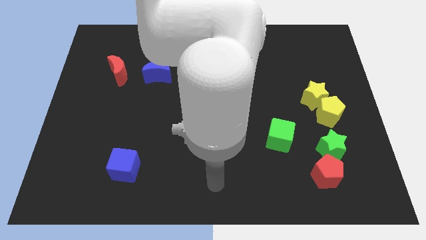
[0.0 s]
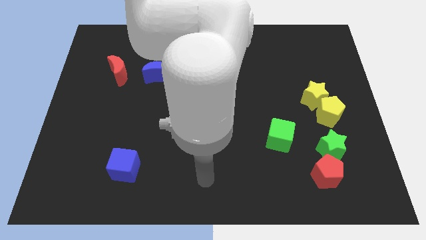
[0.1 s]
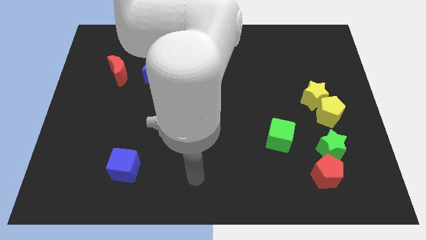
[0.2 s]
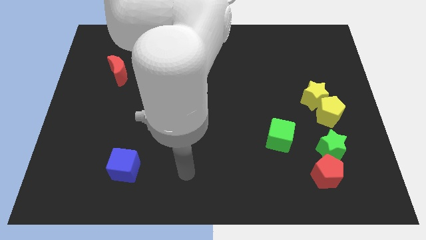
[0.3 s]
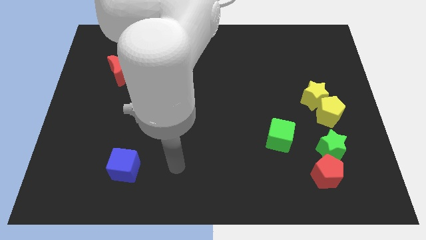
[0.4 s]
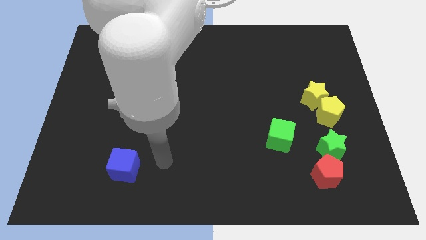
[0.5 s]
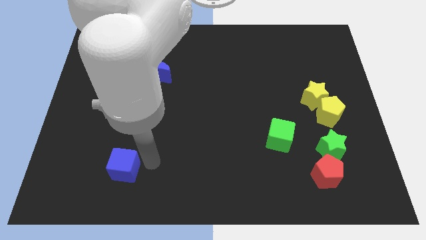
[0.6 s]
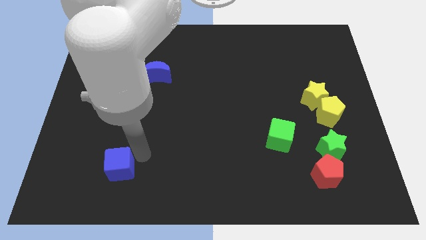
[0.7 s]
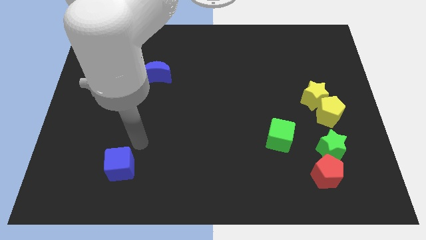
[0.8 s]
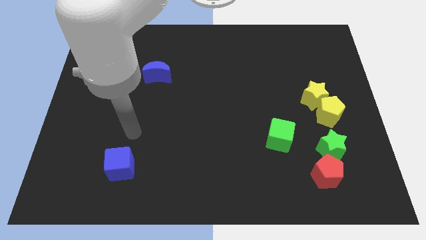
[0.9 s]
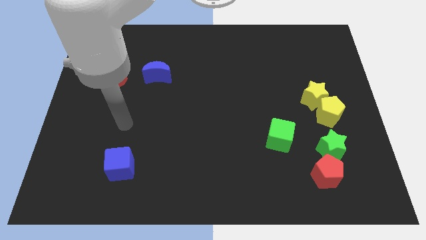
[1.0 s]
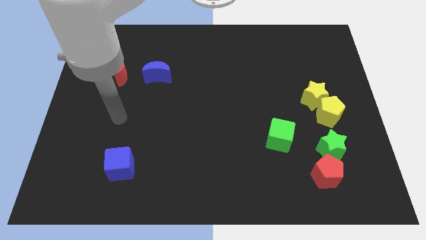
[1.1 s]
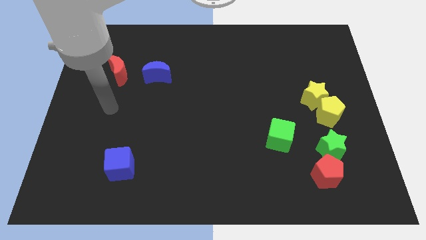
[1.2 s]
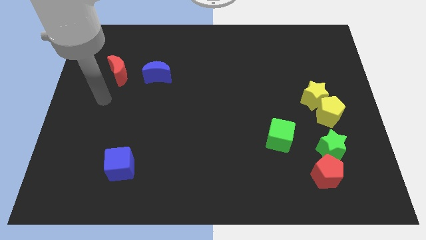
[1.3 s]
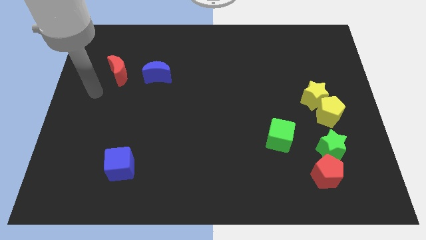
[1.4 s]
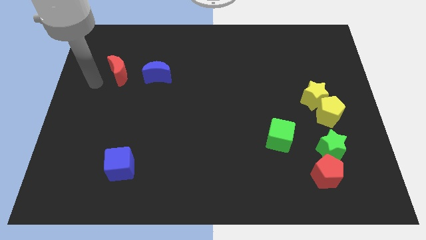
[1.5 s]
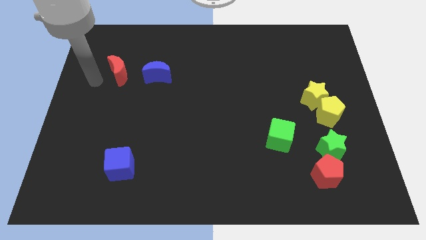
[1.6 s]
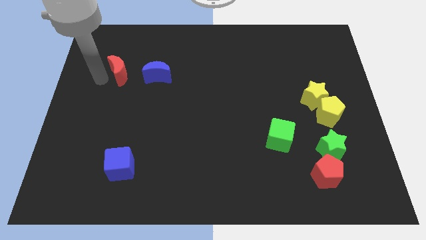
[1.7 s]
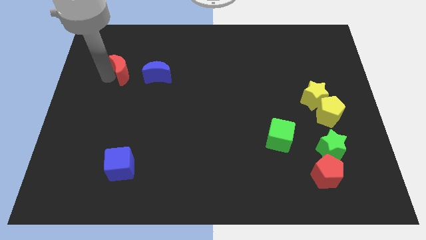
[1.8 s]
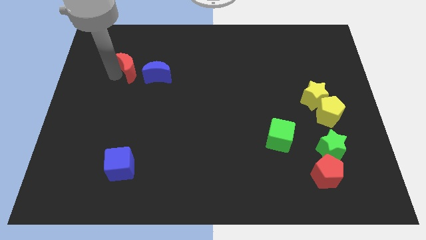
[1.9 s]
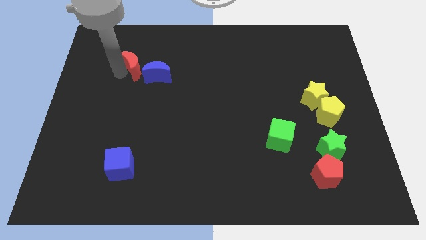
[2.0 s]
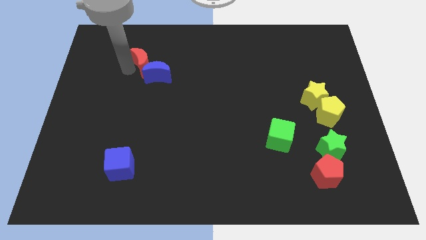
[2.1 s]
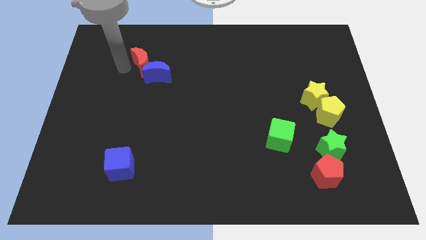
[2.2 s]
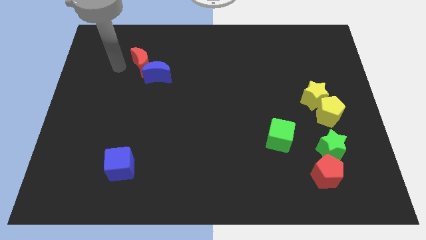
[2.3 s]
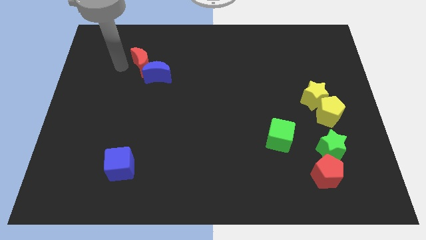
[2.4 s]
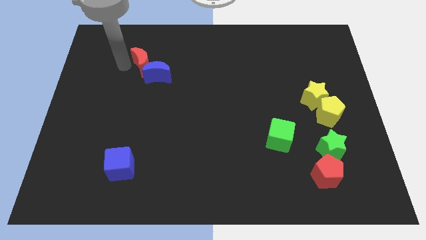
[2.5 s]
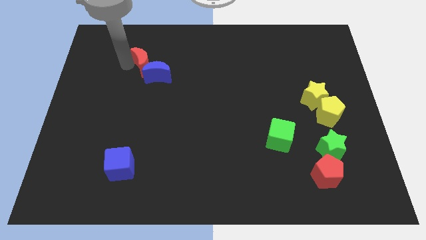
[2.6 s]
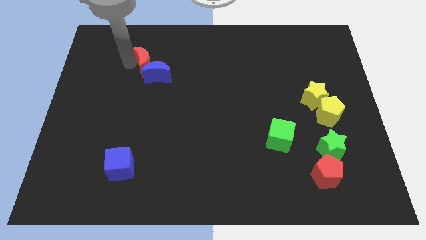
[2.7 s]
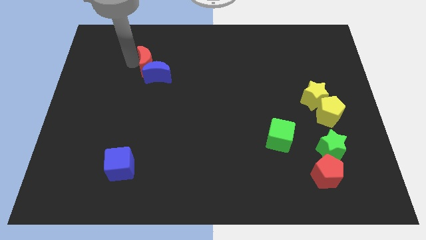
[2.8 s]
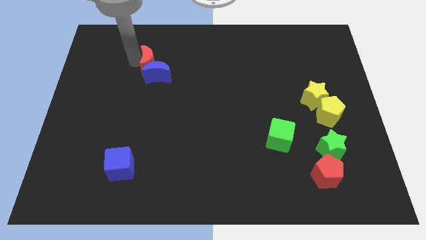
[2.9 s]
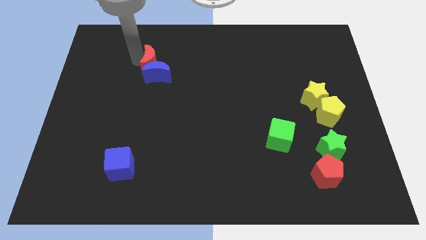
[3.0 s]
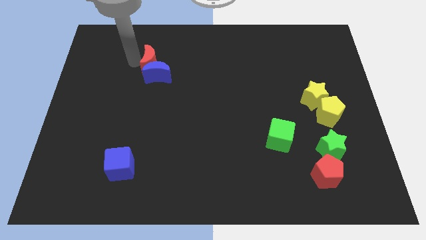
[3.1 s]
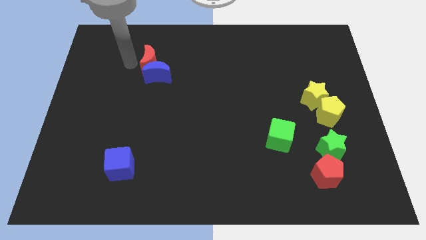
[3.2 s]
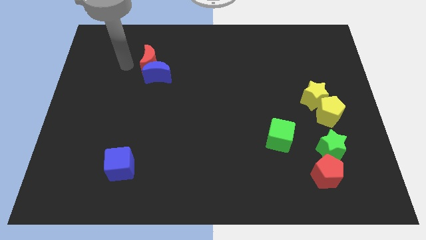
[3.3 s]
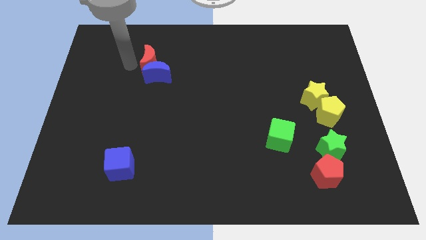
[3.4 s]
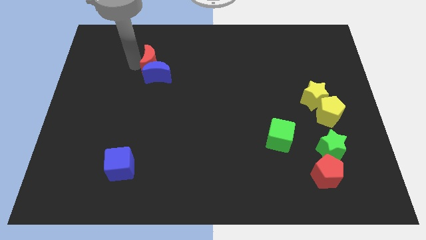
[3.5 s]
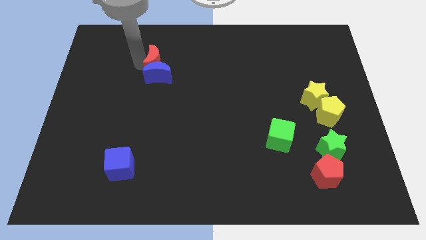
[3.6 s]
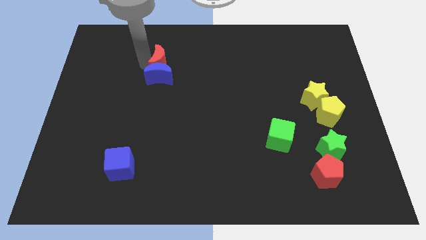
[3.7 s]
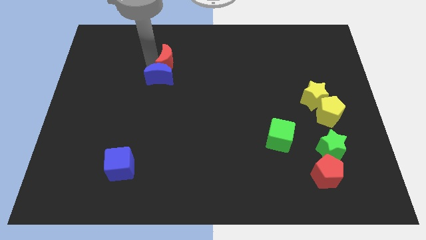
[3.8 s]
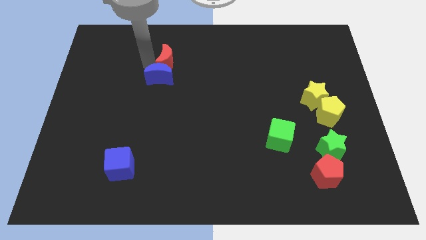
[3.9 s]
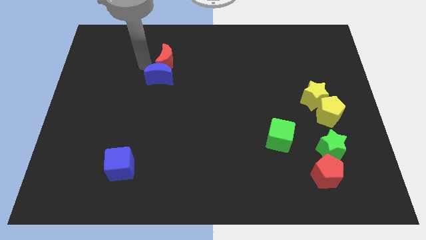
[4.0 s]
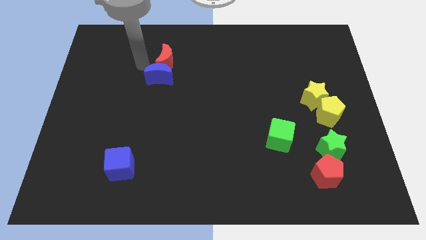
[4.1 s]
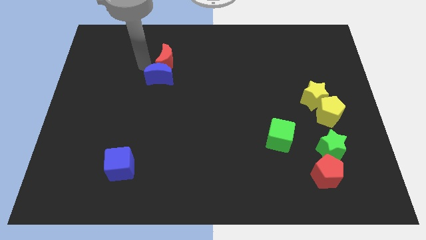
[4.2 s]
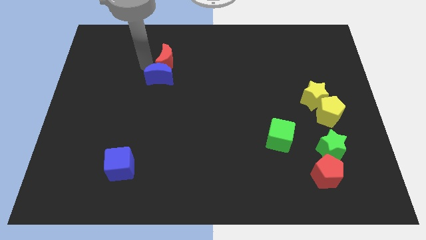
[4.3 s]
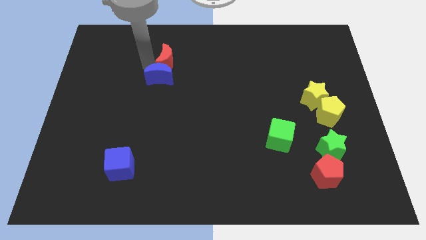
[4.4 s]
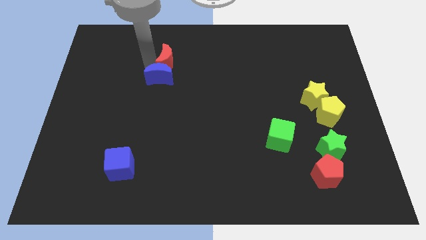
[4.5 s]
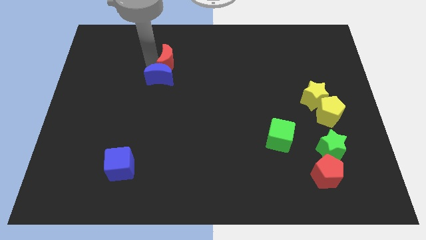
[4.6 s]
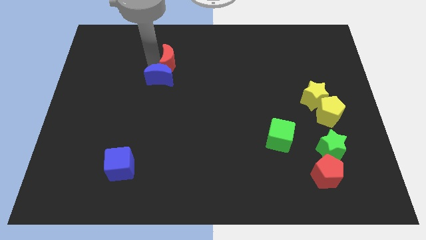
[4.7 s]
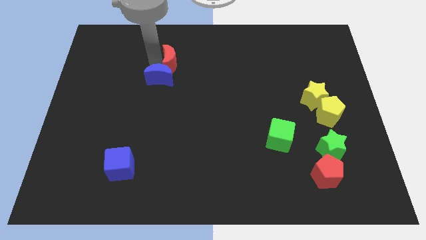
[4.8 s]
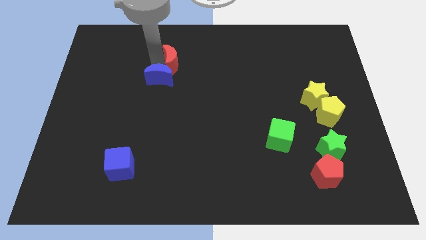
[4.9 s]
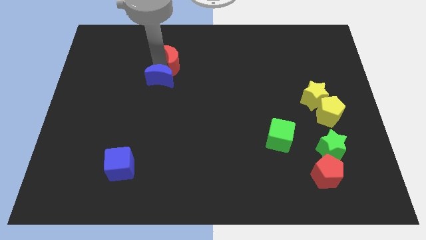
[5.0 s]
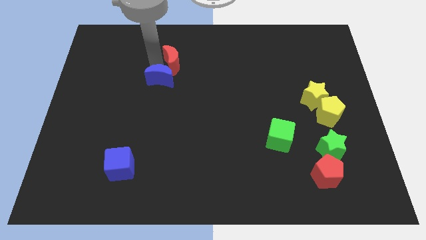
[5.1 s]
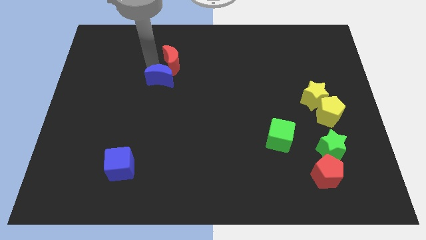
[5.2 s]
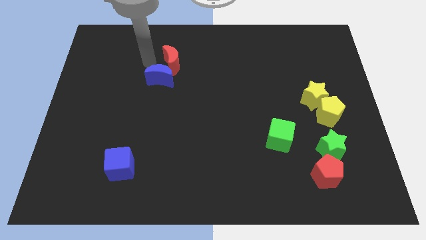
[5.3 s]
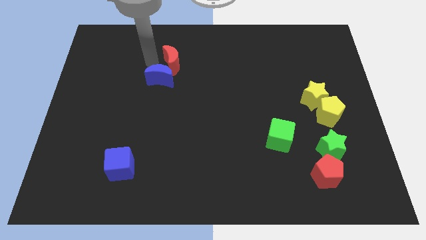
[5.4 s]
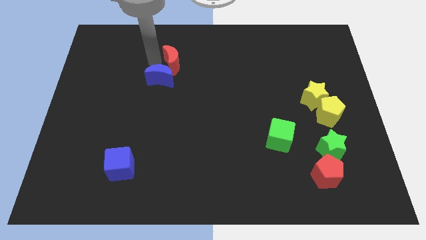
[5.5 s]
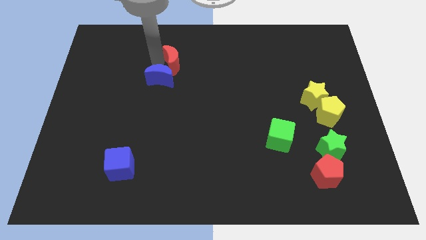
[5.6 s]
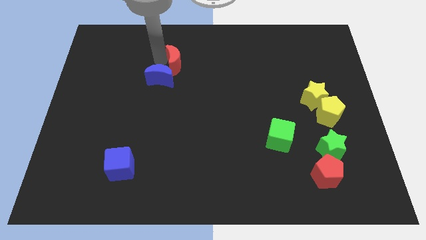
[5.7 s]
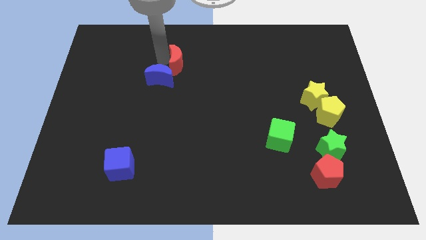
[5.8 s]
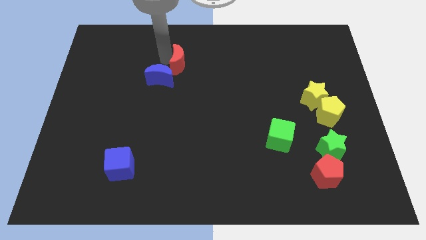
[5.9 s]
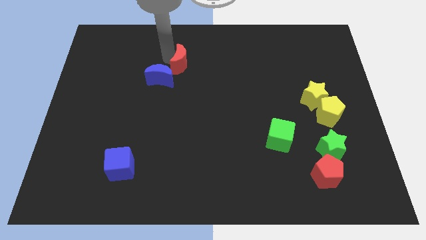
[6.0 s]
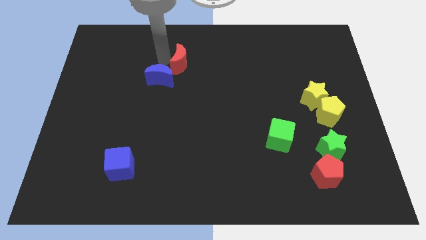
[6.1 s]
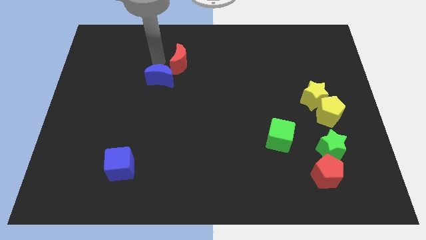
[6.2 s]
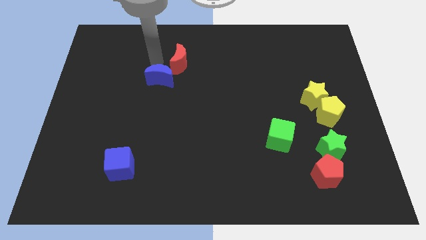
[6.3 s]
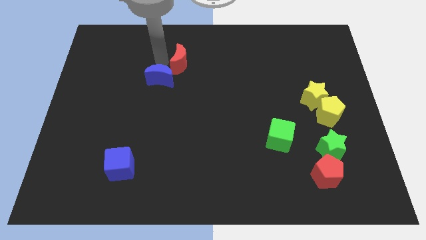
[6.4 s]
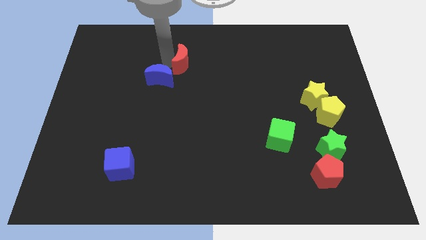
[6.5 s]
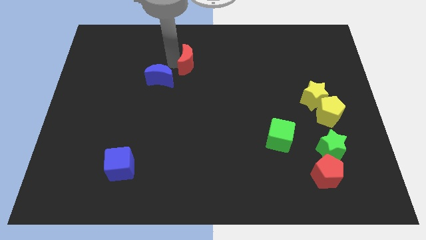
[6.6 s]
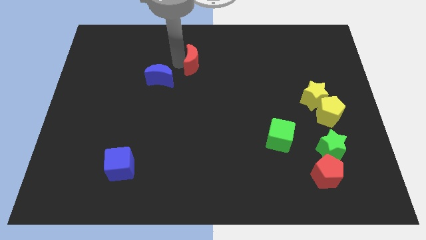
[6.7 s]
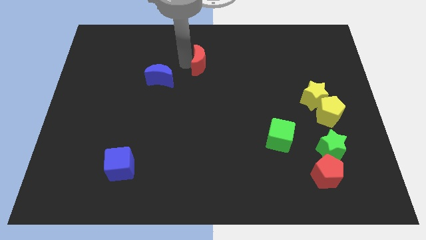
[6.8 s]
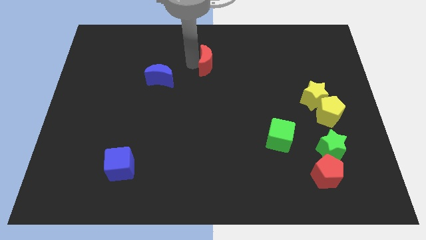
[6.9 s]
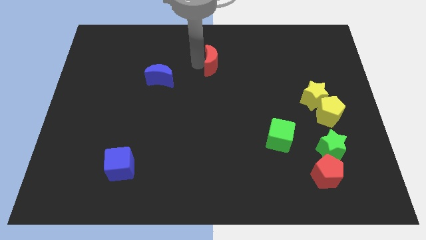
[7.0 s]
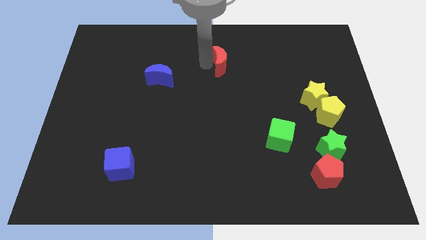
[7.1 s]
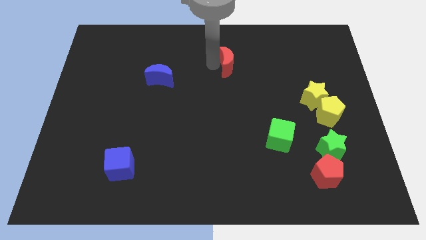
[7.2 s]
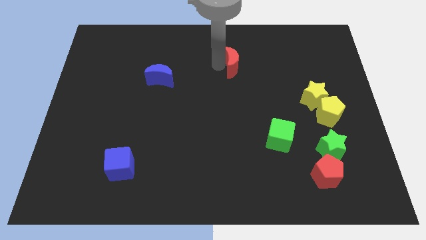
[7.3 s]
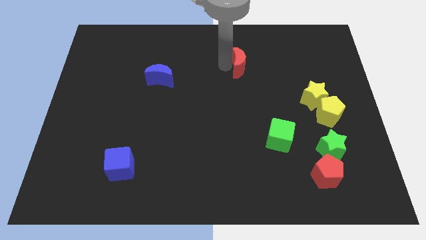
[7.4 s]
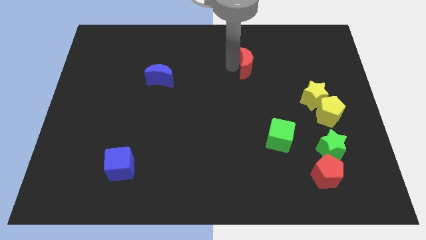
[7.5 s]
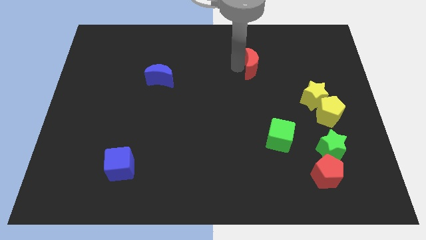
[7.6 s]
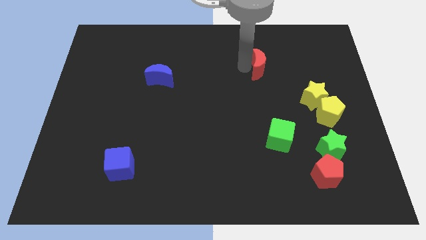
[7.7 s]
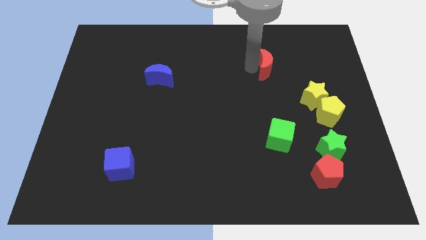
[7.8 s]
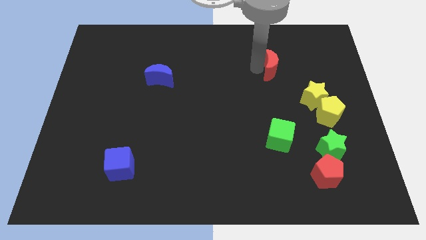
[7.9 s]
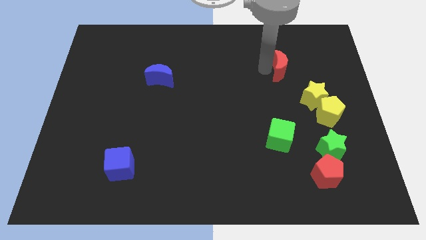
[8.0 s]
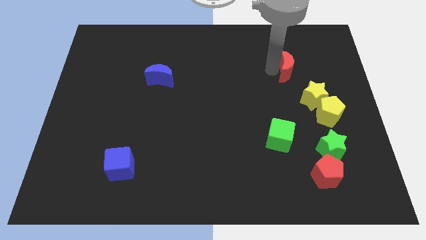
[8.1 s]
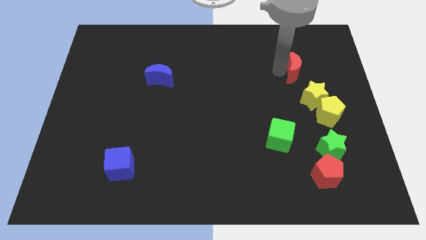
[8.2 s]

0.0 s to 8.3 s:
slide the red moon to the top of the yellow star

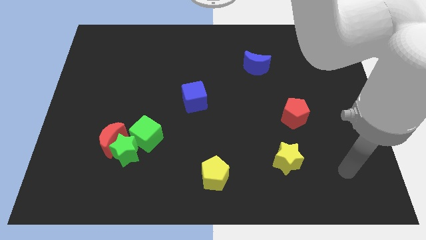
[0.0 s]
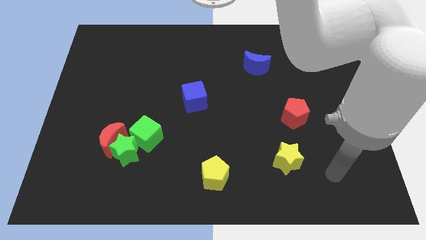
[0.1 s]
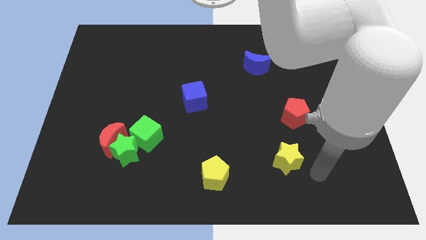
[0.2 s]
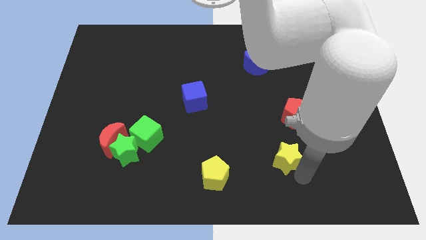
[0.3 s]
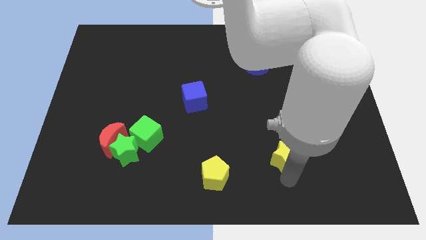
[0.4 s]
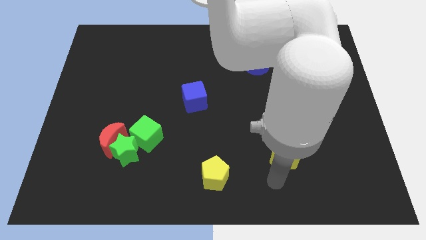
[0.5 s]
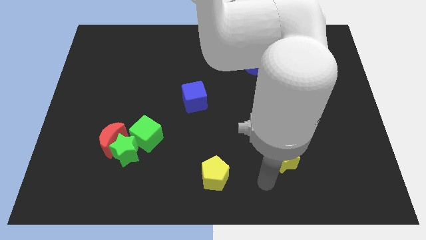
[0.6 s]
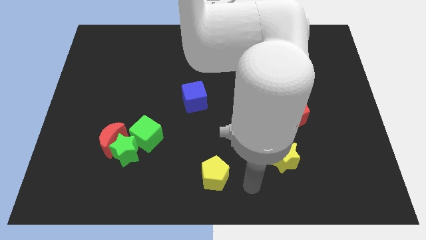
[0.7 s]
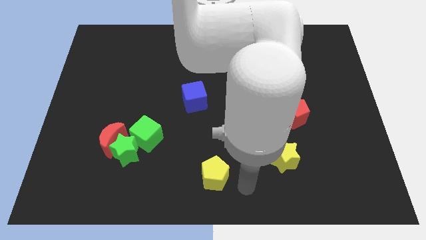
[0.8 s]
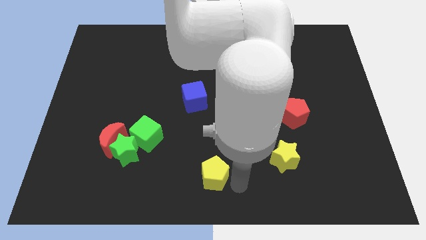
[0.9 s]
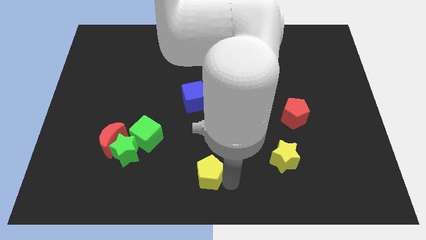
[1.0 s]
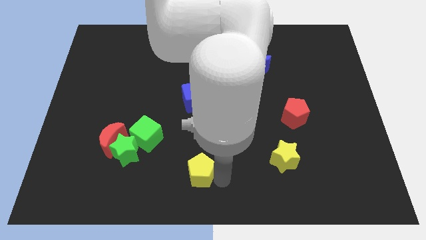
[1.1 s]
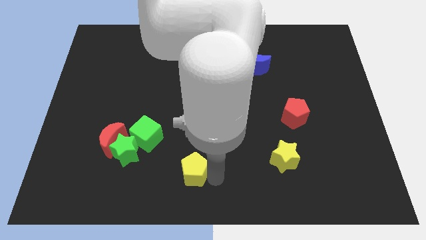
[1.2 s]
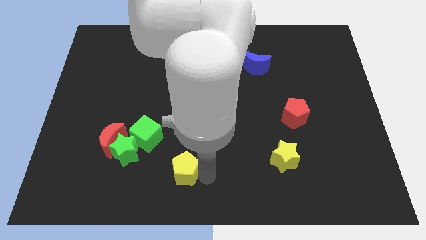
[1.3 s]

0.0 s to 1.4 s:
put the yellow pentagon to the bottom right side of the green cube
